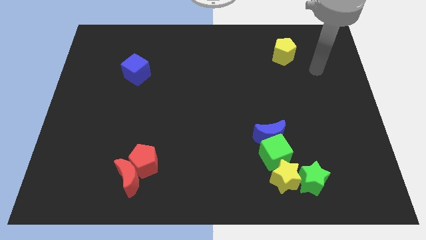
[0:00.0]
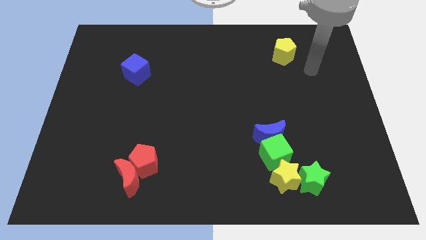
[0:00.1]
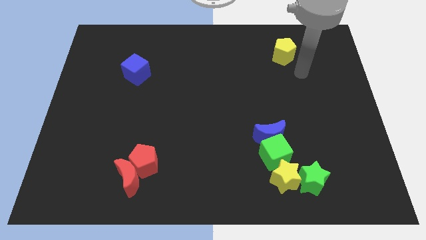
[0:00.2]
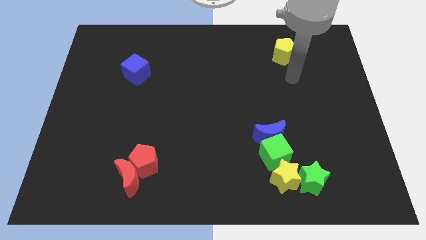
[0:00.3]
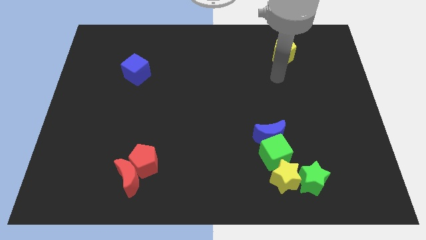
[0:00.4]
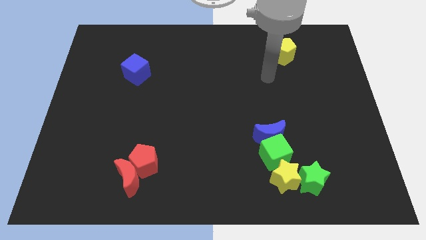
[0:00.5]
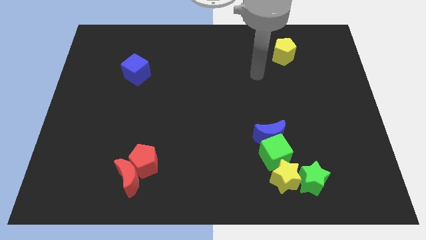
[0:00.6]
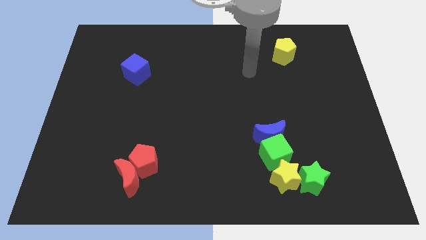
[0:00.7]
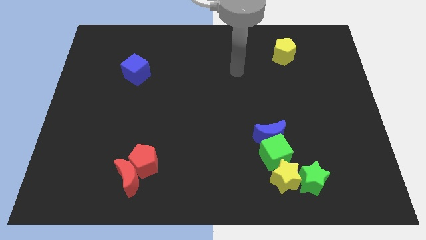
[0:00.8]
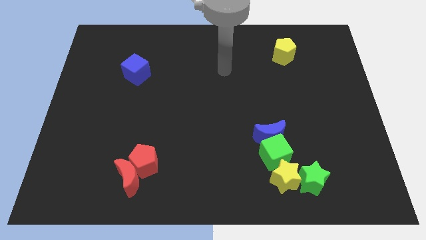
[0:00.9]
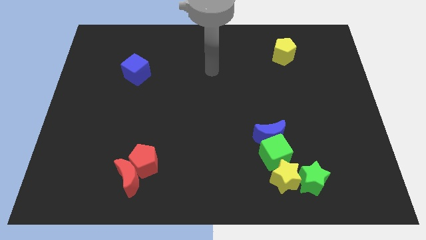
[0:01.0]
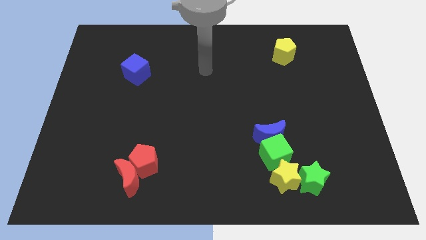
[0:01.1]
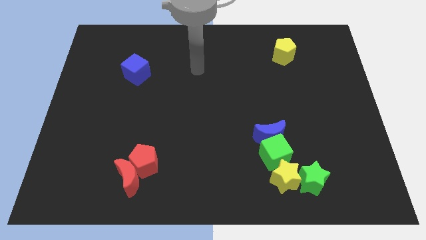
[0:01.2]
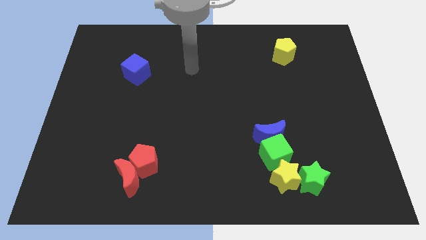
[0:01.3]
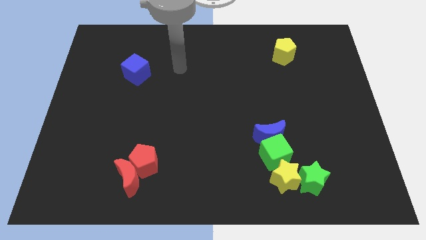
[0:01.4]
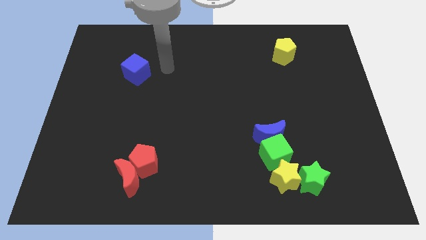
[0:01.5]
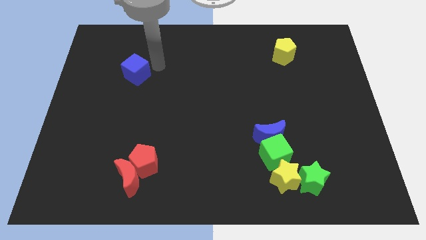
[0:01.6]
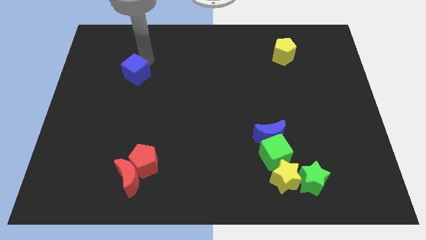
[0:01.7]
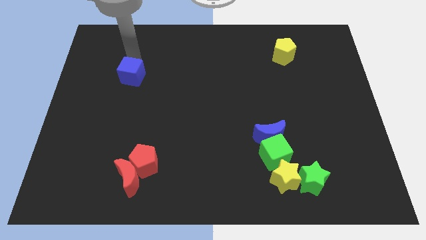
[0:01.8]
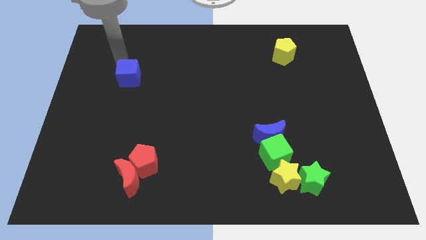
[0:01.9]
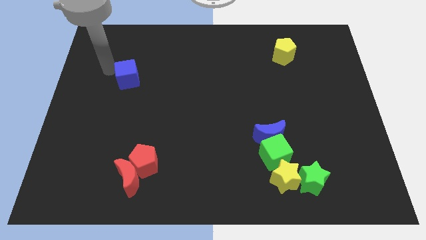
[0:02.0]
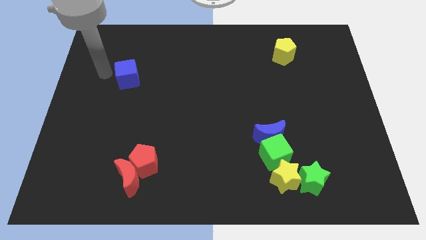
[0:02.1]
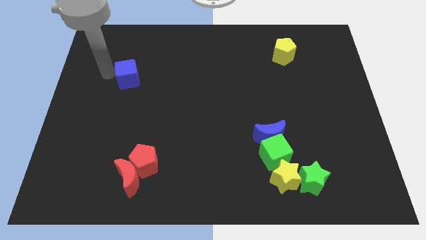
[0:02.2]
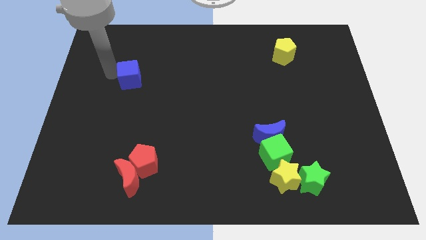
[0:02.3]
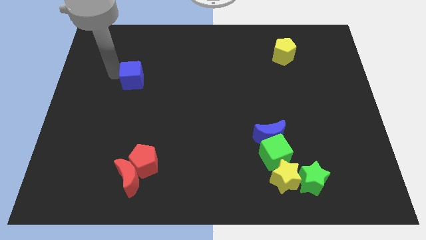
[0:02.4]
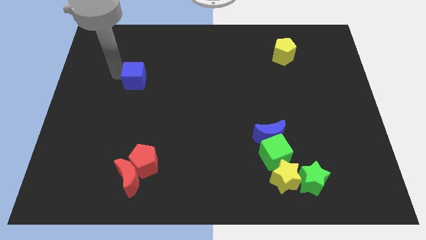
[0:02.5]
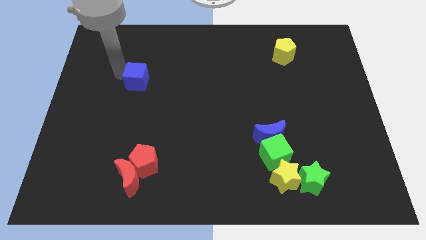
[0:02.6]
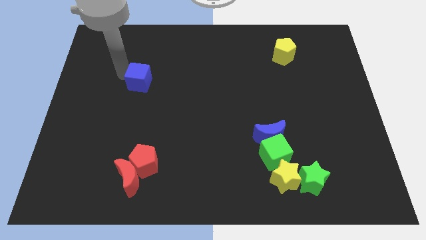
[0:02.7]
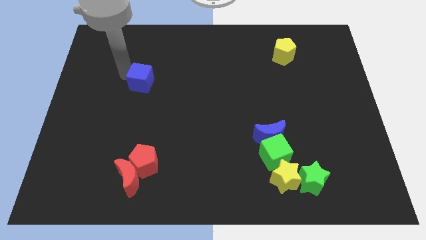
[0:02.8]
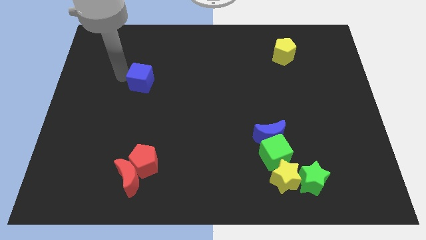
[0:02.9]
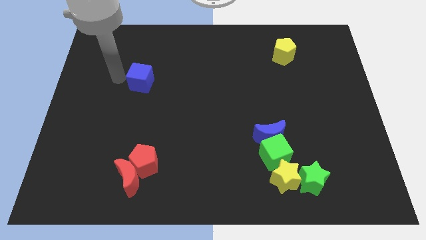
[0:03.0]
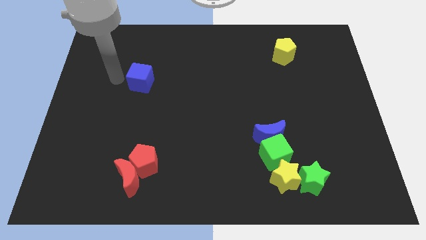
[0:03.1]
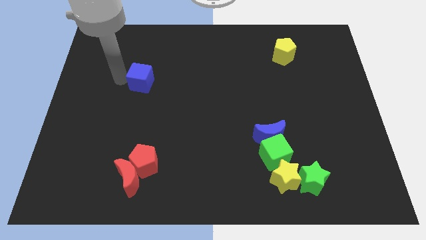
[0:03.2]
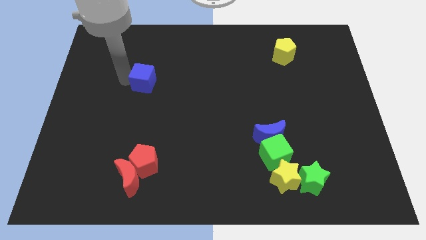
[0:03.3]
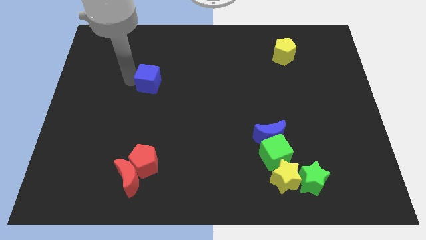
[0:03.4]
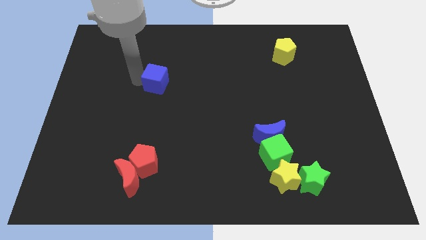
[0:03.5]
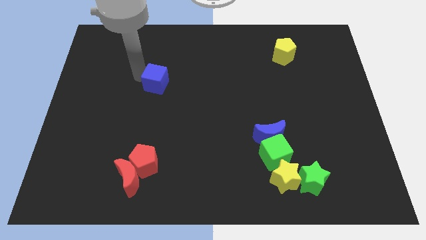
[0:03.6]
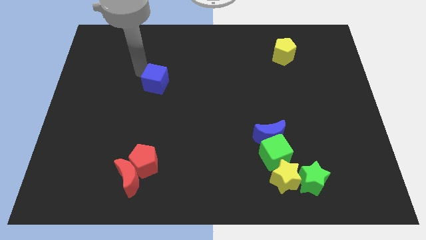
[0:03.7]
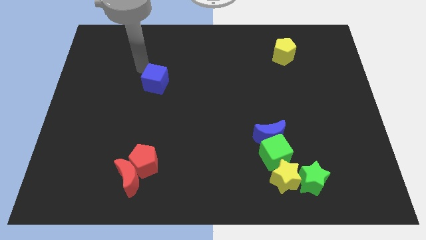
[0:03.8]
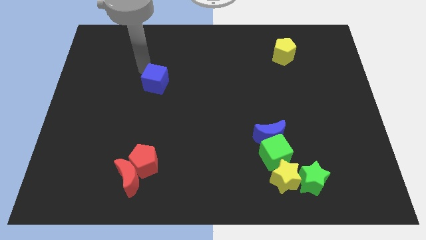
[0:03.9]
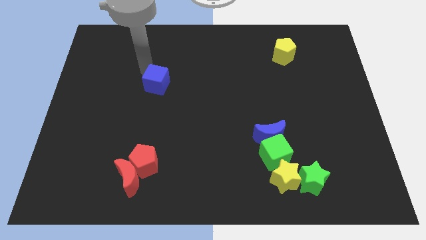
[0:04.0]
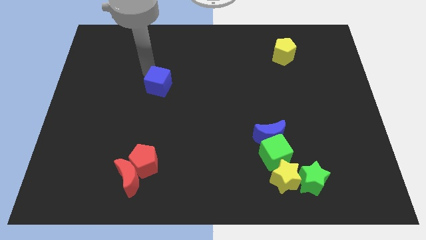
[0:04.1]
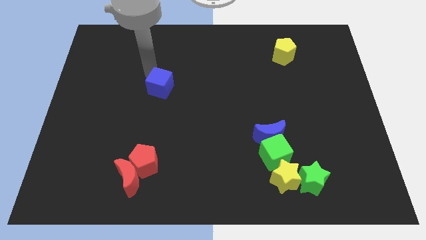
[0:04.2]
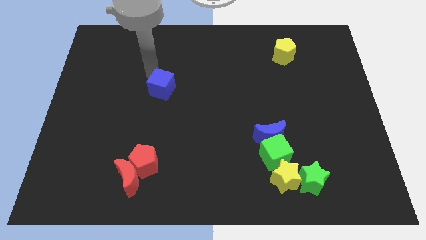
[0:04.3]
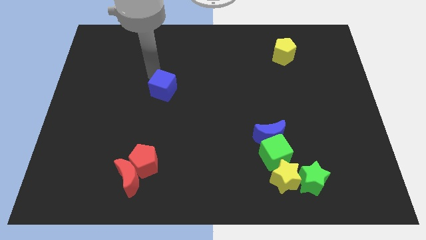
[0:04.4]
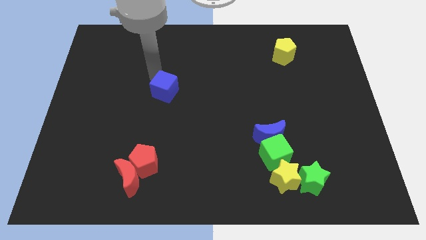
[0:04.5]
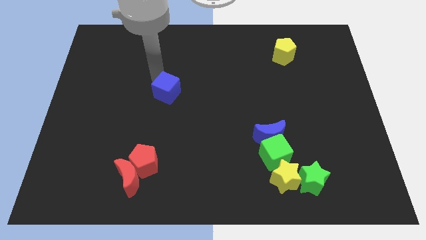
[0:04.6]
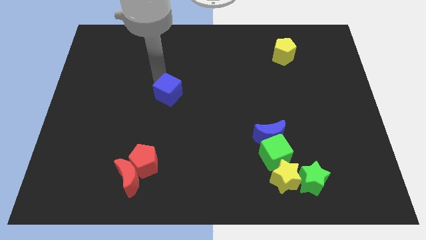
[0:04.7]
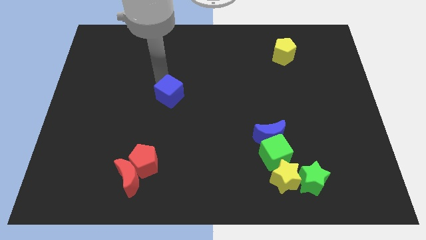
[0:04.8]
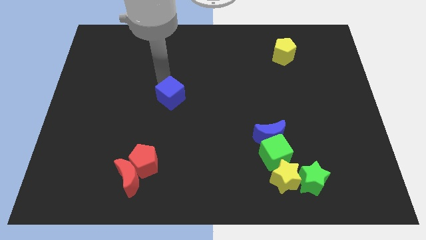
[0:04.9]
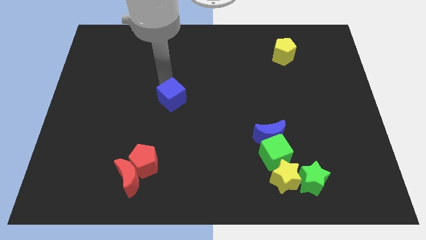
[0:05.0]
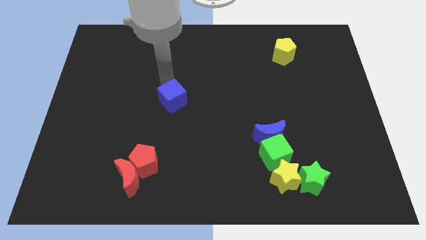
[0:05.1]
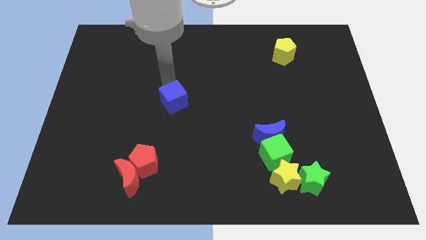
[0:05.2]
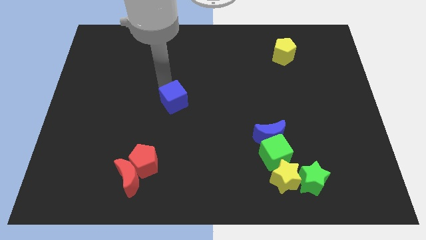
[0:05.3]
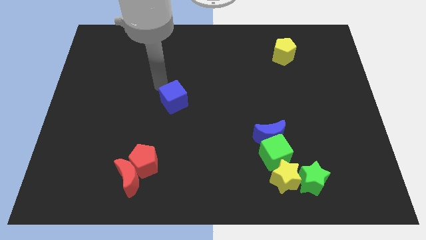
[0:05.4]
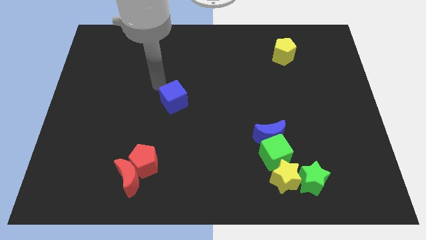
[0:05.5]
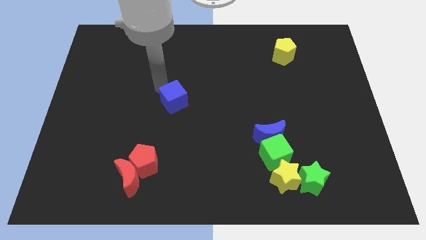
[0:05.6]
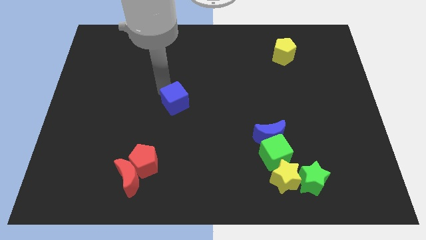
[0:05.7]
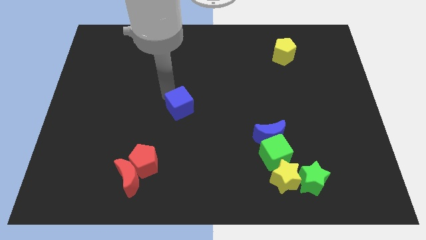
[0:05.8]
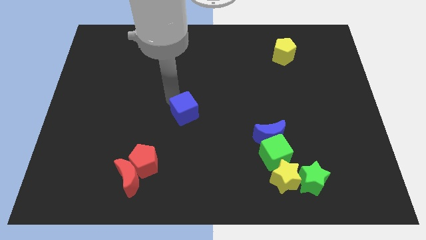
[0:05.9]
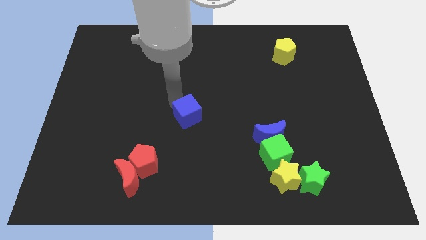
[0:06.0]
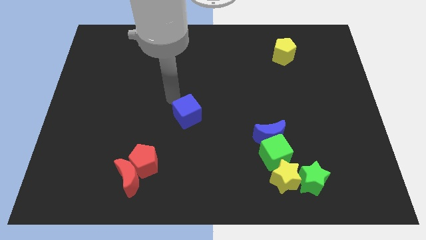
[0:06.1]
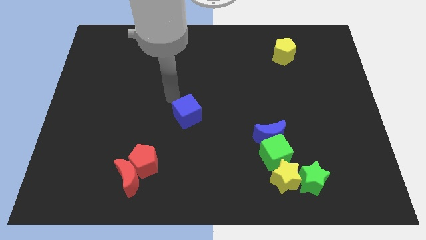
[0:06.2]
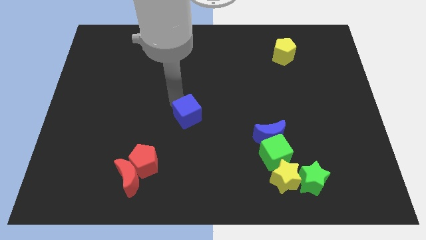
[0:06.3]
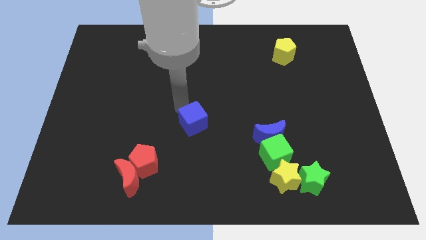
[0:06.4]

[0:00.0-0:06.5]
move the blue cube diagonally downwards and right

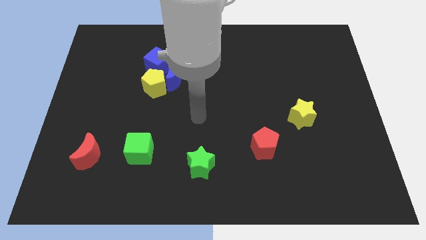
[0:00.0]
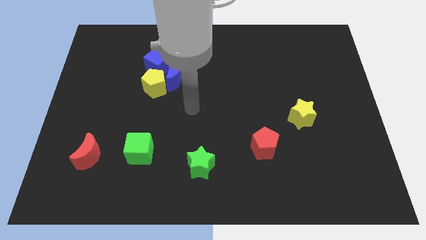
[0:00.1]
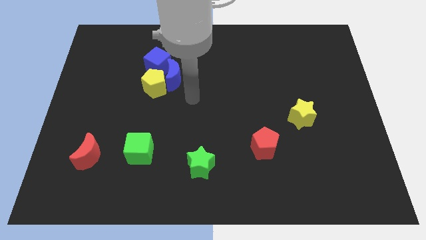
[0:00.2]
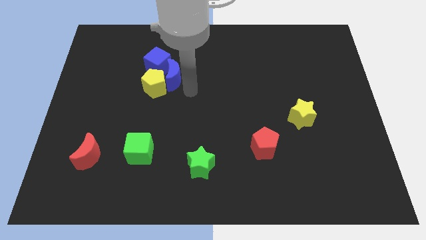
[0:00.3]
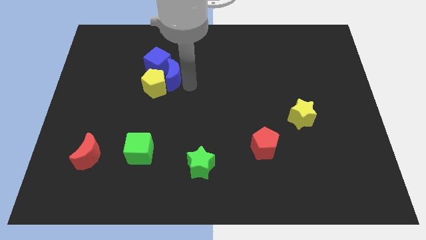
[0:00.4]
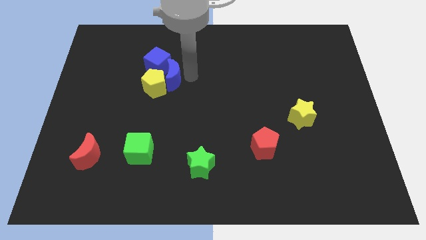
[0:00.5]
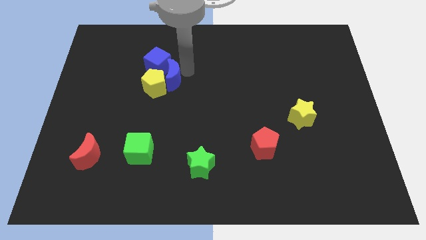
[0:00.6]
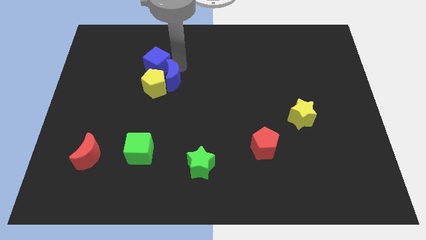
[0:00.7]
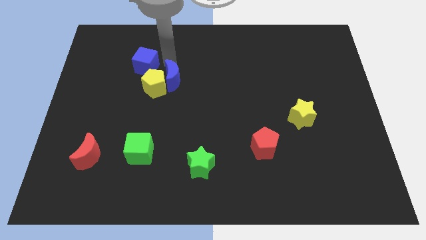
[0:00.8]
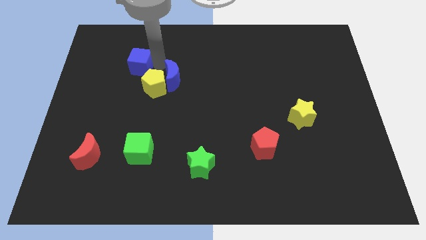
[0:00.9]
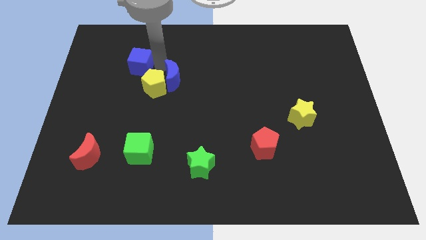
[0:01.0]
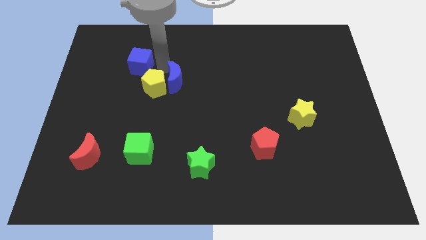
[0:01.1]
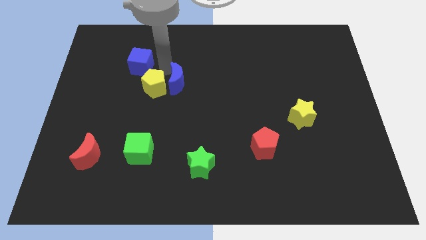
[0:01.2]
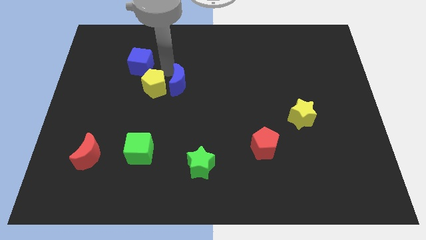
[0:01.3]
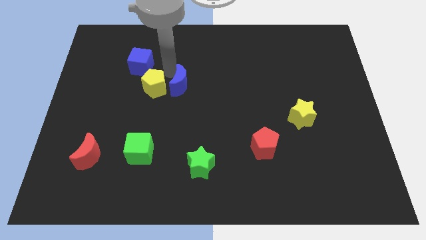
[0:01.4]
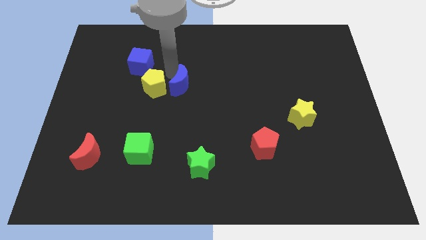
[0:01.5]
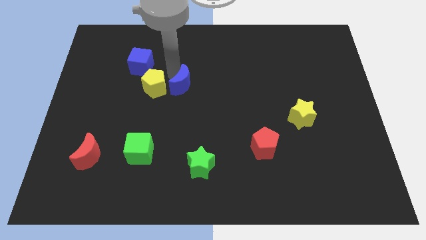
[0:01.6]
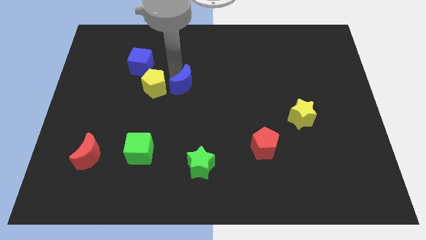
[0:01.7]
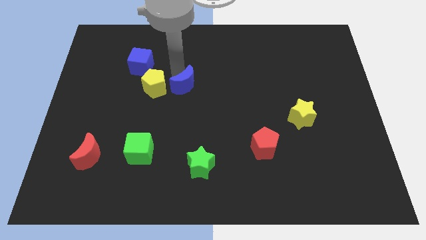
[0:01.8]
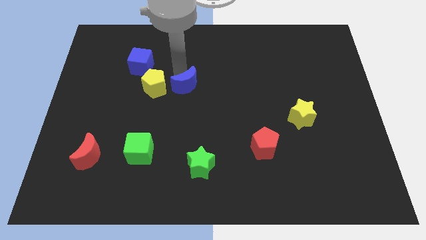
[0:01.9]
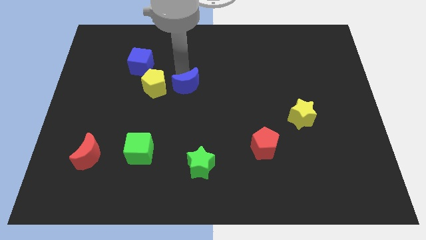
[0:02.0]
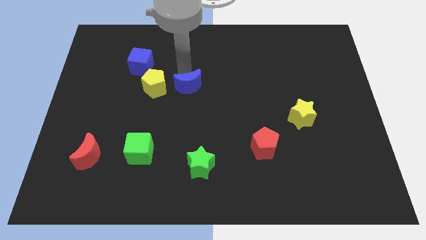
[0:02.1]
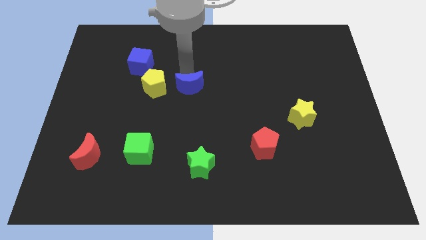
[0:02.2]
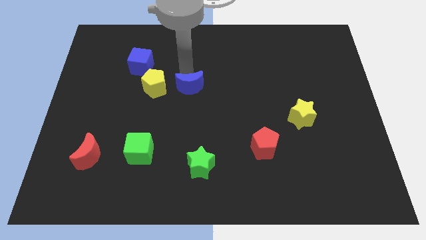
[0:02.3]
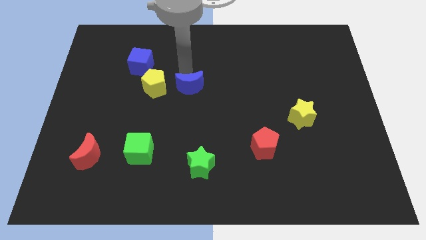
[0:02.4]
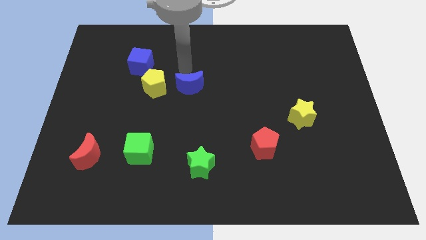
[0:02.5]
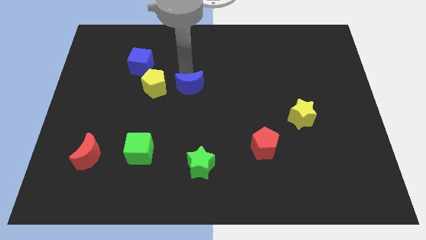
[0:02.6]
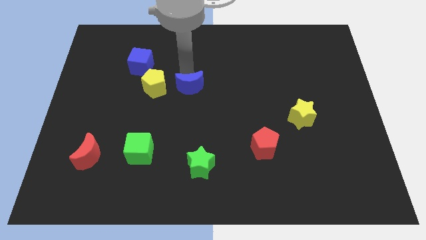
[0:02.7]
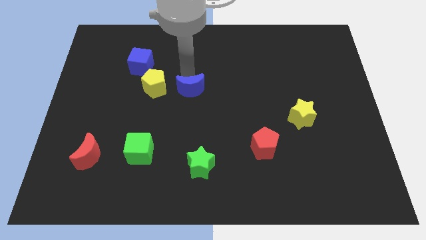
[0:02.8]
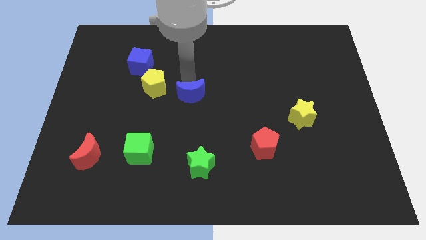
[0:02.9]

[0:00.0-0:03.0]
push the blue moon down and to the right diagonally somewhat
